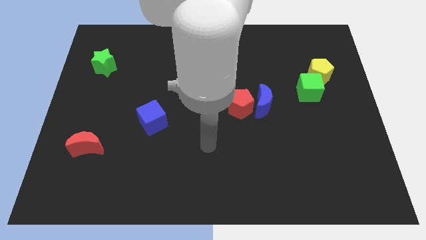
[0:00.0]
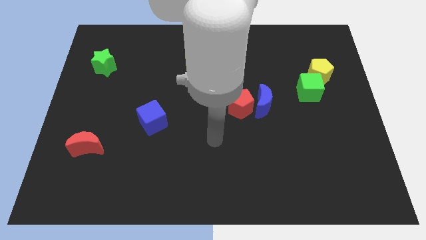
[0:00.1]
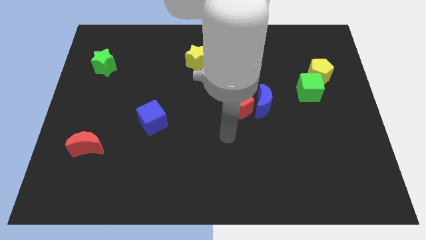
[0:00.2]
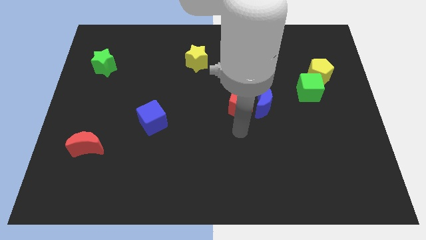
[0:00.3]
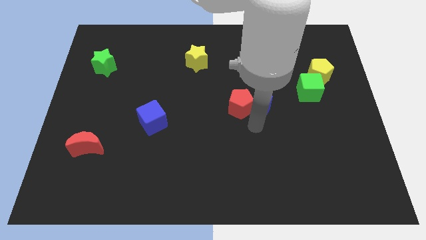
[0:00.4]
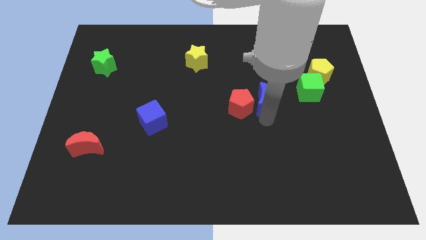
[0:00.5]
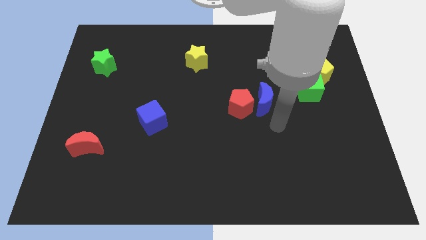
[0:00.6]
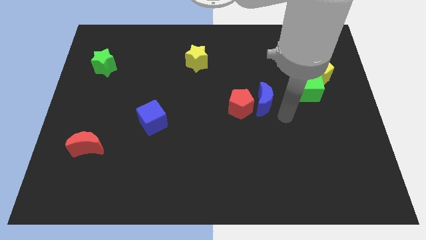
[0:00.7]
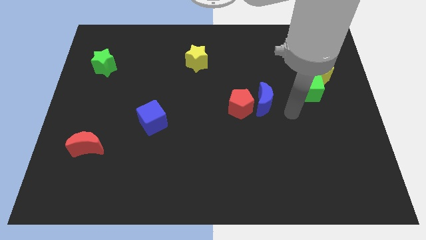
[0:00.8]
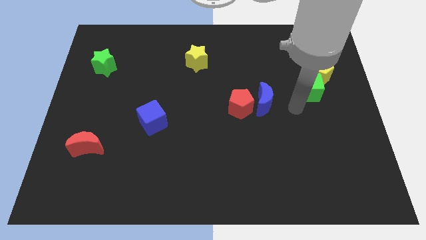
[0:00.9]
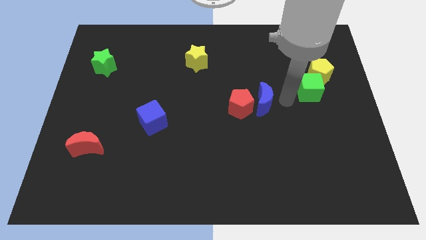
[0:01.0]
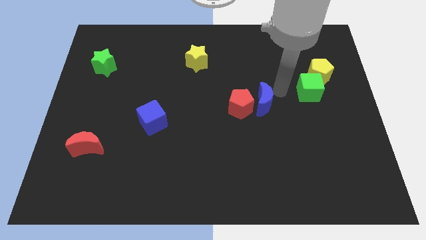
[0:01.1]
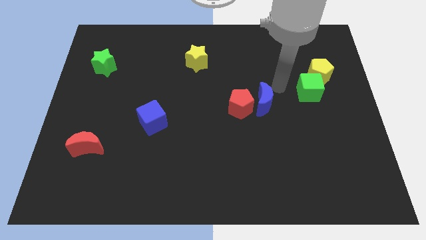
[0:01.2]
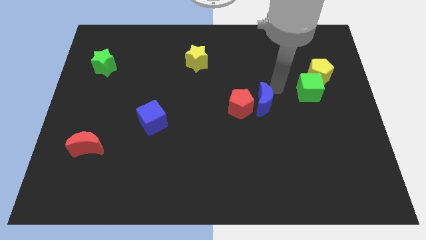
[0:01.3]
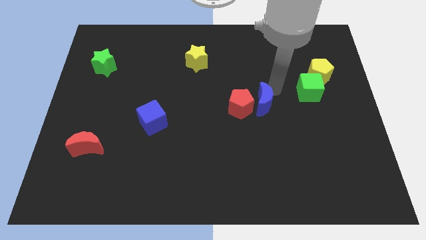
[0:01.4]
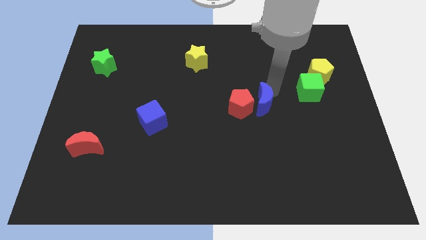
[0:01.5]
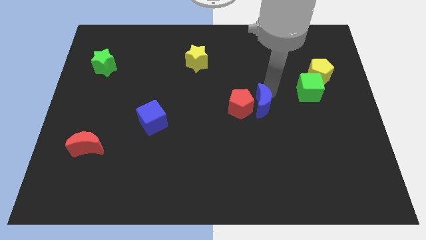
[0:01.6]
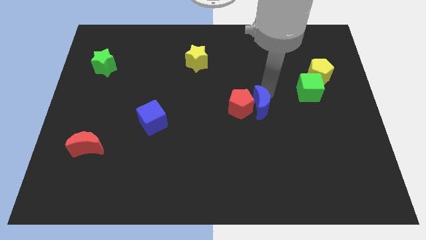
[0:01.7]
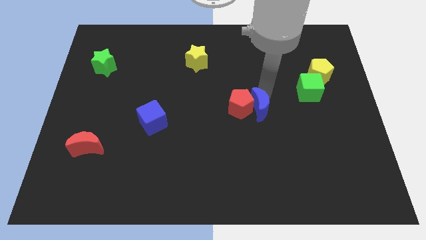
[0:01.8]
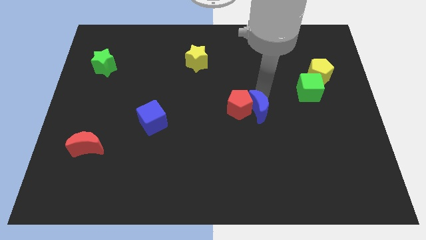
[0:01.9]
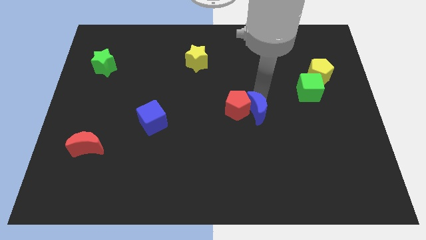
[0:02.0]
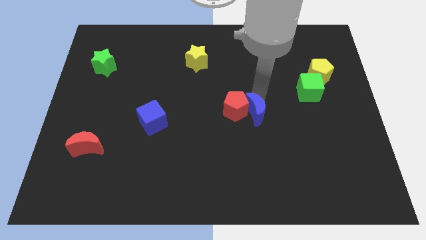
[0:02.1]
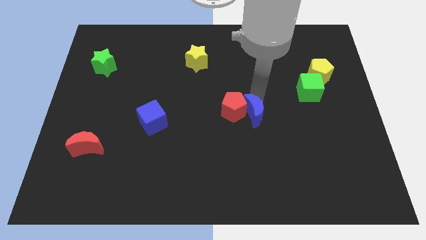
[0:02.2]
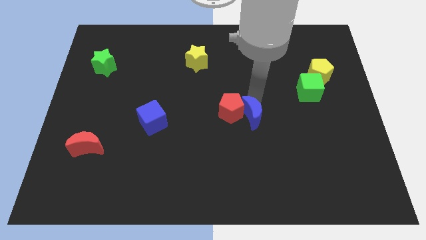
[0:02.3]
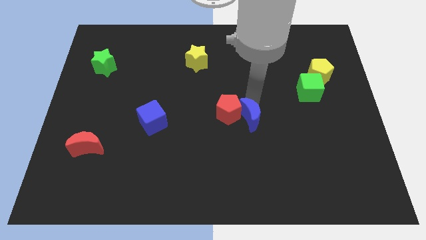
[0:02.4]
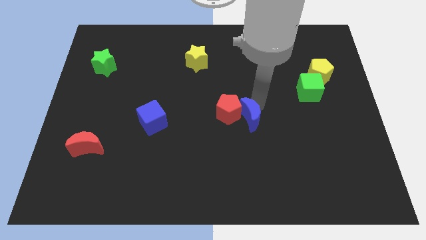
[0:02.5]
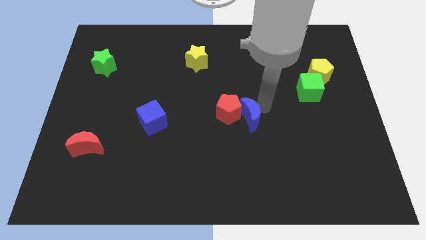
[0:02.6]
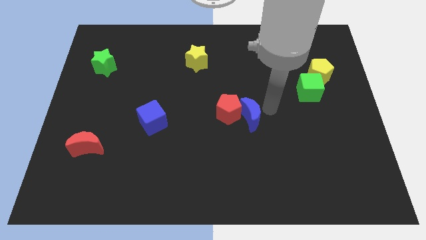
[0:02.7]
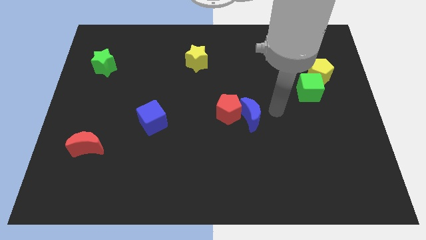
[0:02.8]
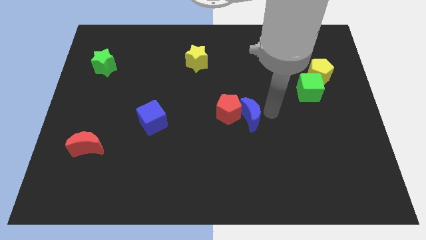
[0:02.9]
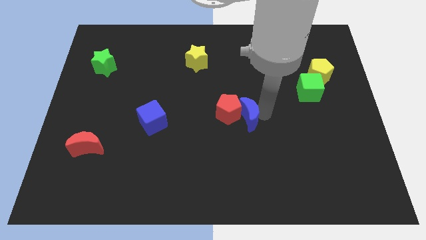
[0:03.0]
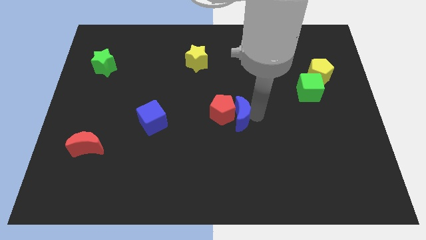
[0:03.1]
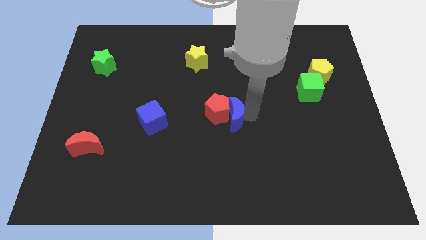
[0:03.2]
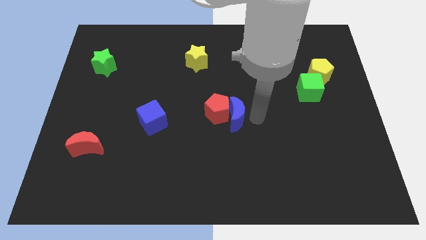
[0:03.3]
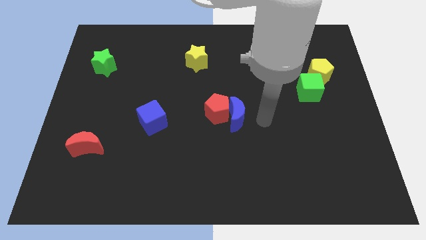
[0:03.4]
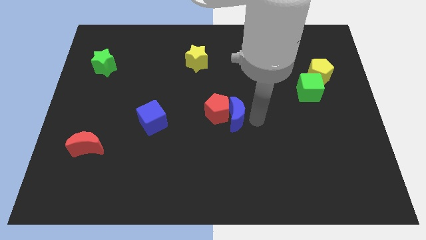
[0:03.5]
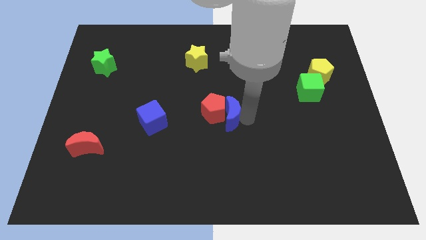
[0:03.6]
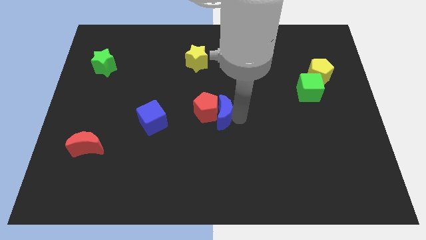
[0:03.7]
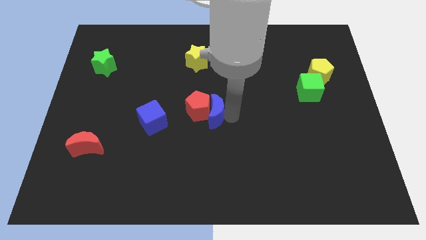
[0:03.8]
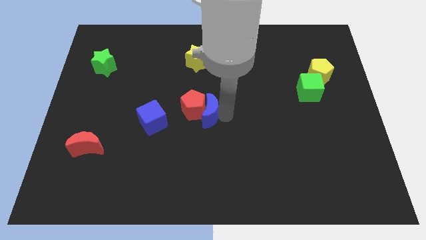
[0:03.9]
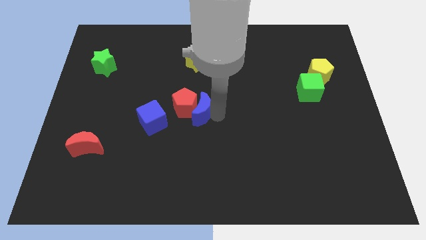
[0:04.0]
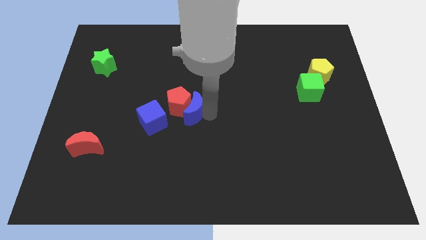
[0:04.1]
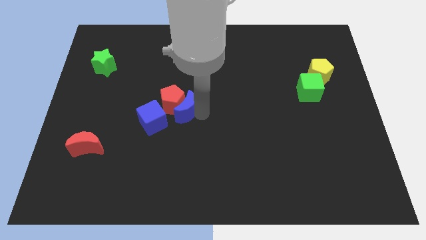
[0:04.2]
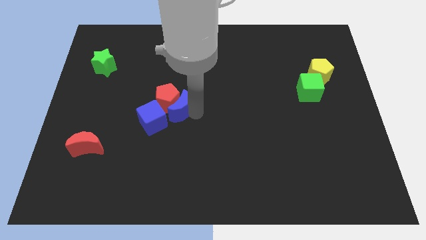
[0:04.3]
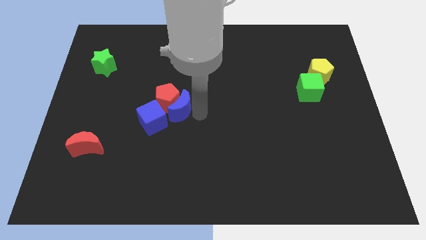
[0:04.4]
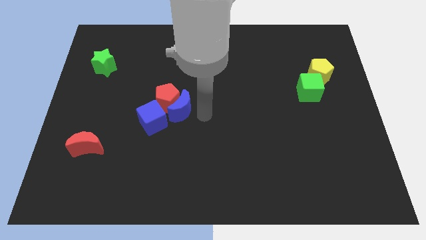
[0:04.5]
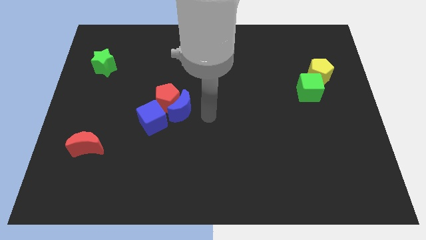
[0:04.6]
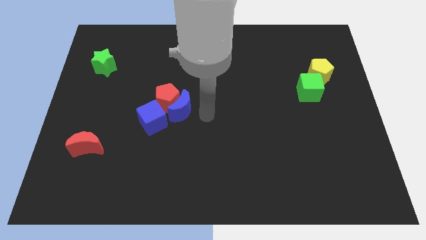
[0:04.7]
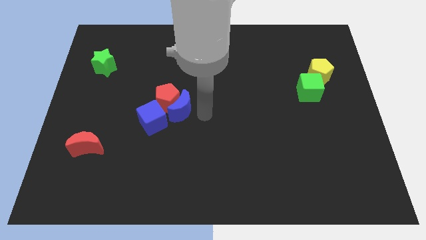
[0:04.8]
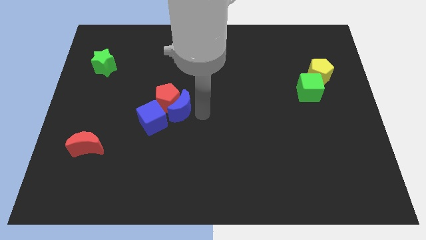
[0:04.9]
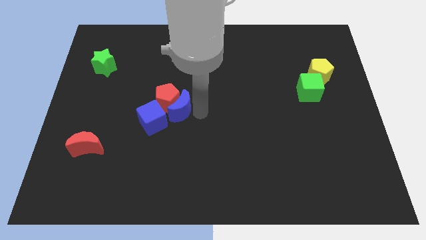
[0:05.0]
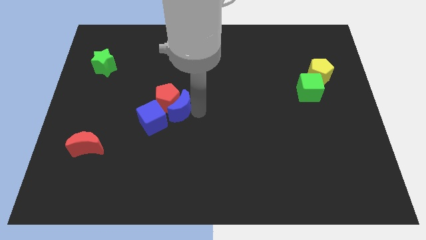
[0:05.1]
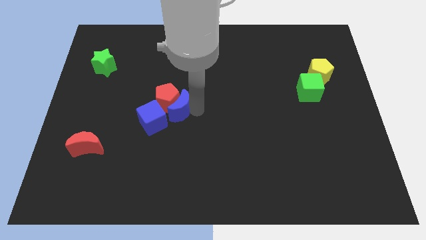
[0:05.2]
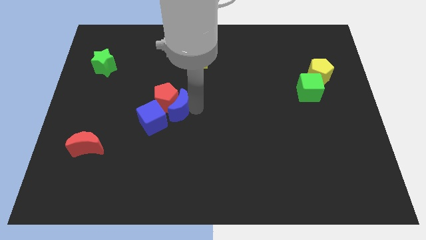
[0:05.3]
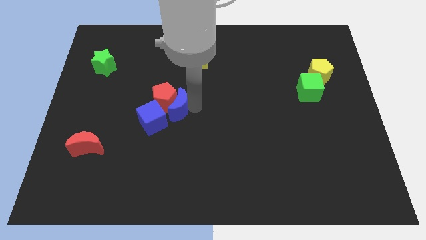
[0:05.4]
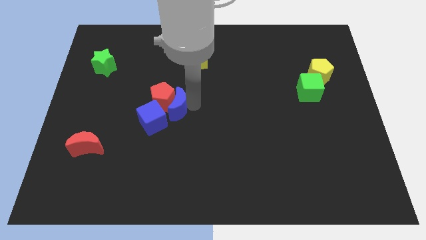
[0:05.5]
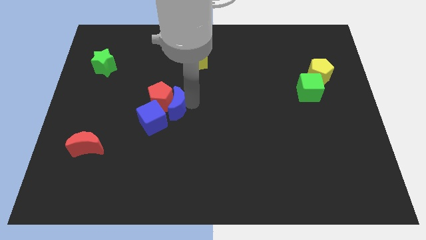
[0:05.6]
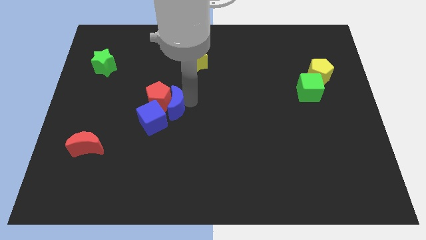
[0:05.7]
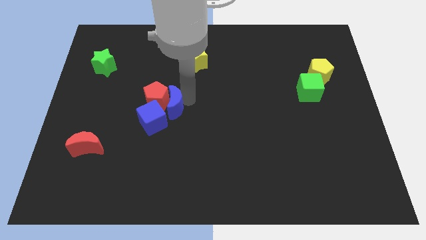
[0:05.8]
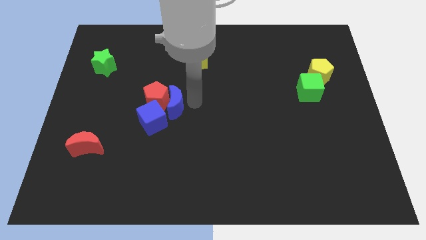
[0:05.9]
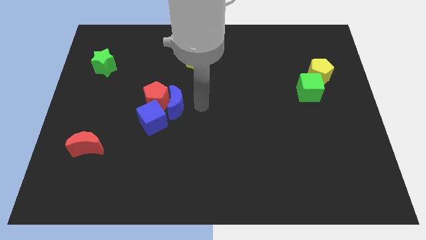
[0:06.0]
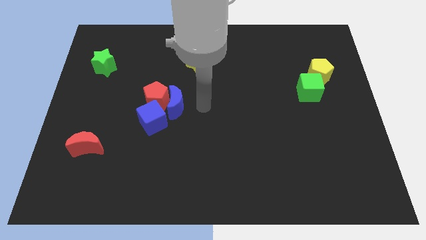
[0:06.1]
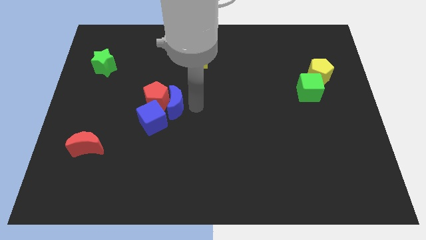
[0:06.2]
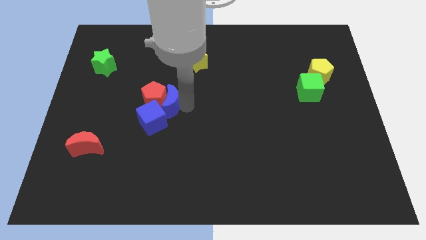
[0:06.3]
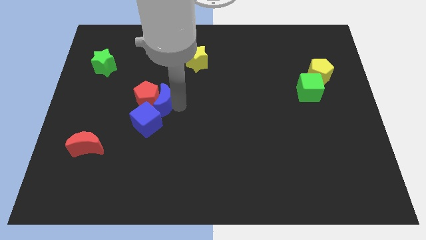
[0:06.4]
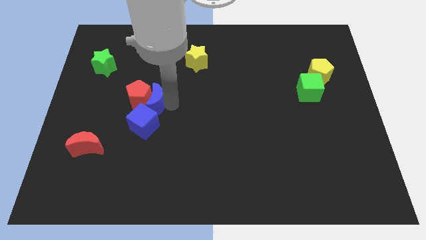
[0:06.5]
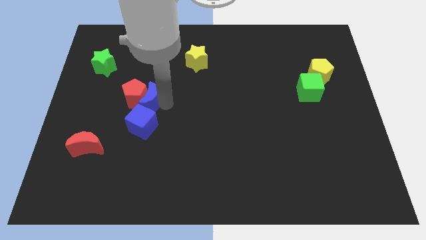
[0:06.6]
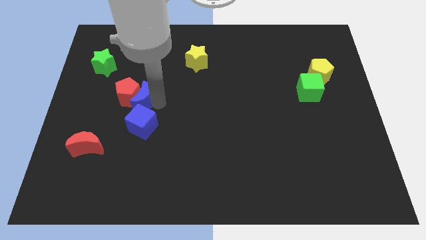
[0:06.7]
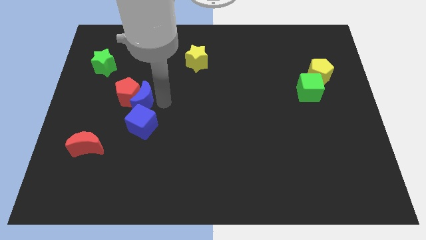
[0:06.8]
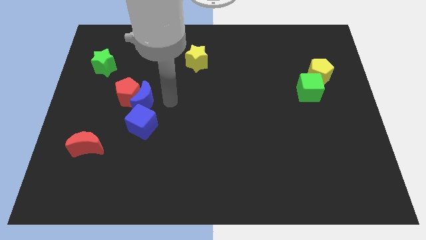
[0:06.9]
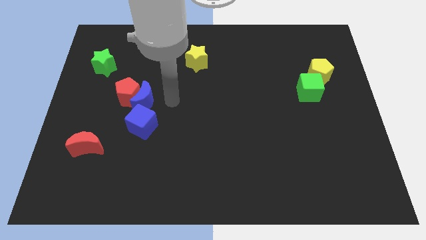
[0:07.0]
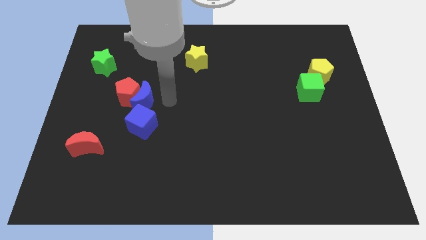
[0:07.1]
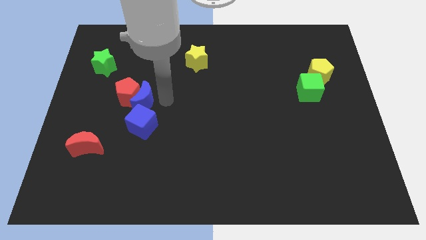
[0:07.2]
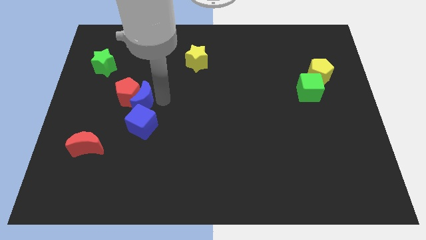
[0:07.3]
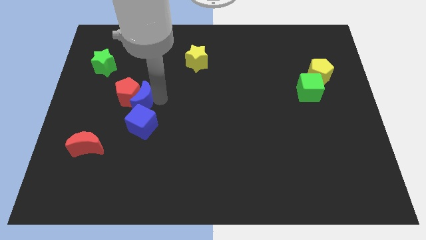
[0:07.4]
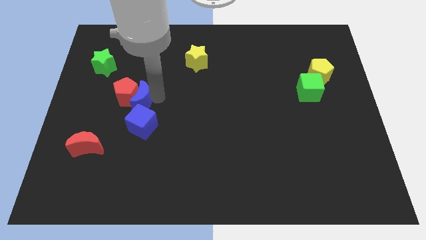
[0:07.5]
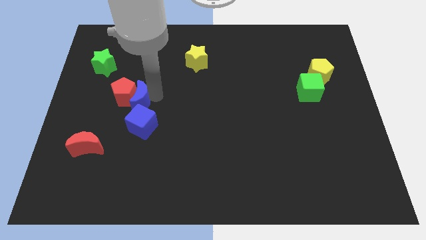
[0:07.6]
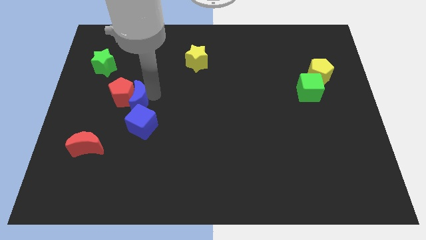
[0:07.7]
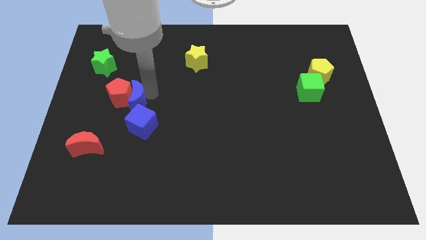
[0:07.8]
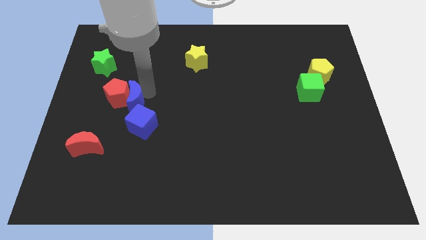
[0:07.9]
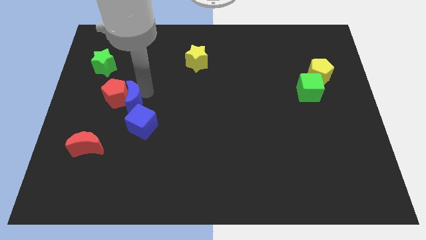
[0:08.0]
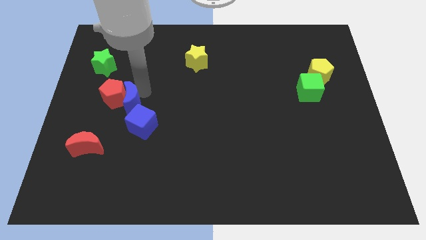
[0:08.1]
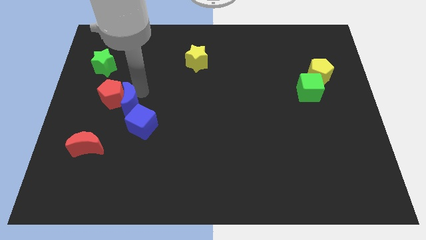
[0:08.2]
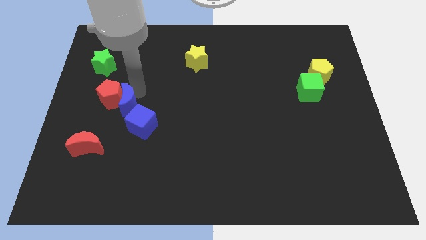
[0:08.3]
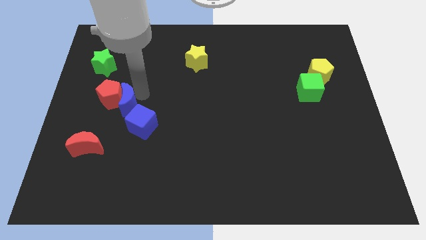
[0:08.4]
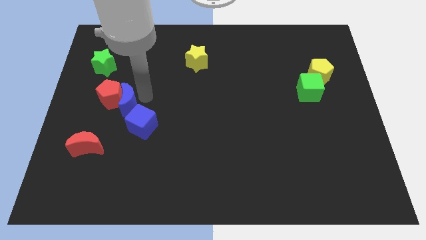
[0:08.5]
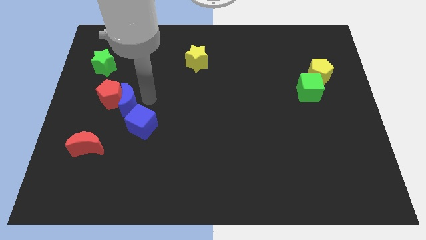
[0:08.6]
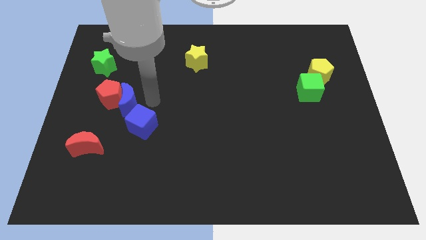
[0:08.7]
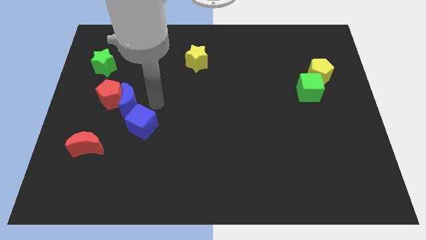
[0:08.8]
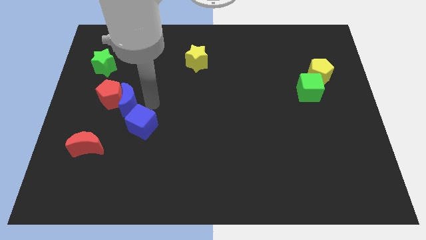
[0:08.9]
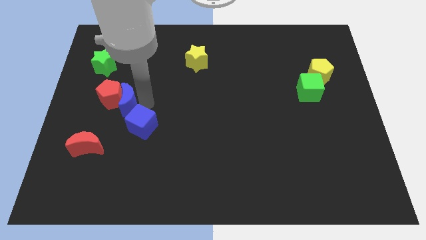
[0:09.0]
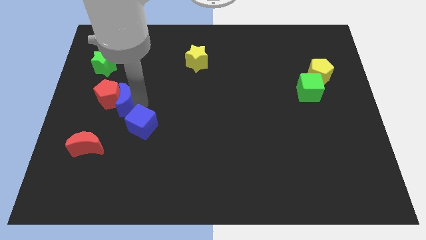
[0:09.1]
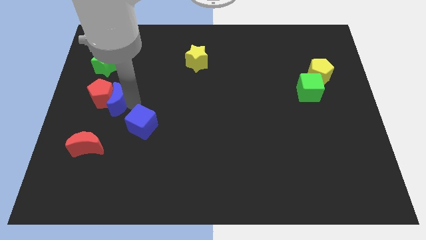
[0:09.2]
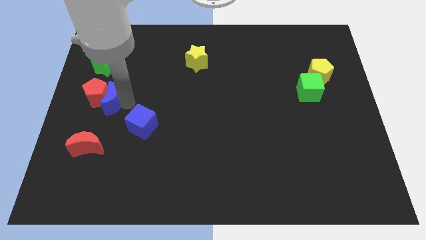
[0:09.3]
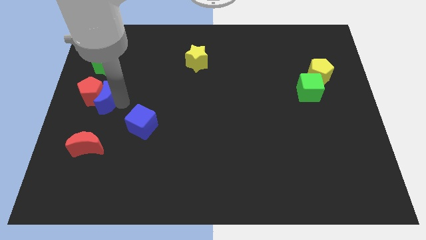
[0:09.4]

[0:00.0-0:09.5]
move the blue moon to the center left
